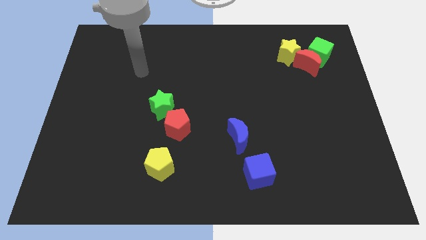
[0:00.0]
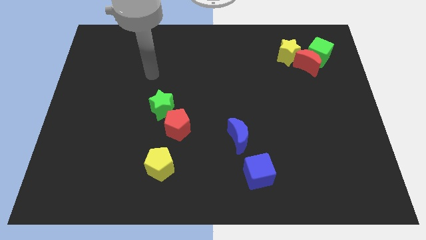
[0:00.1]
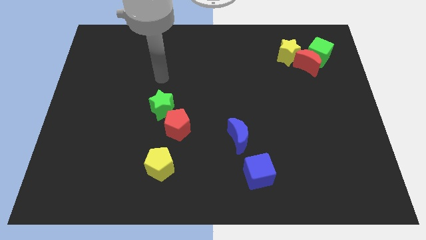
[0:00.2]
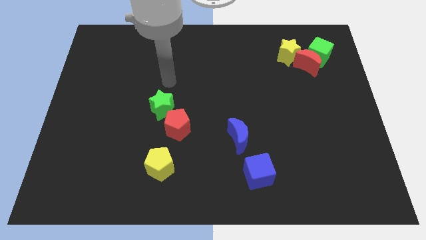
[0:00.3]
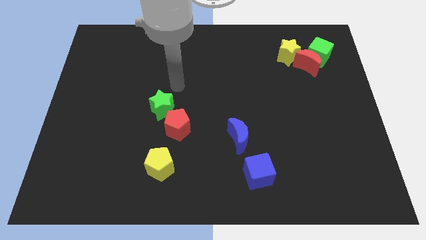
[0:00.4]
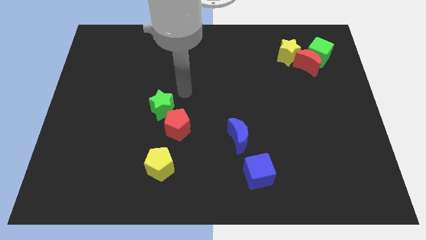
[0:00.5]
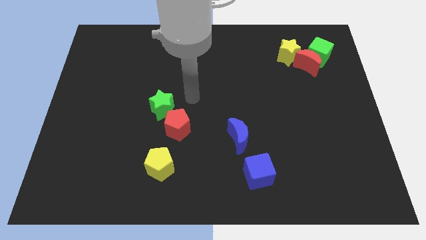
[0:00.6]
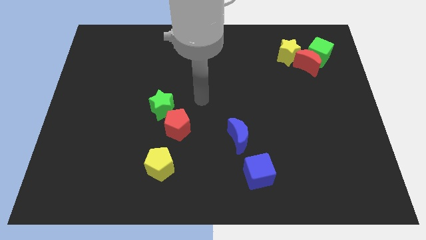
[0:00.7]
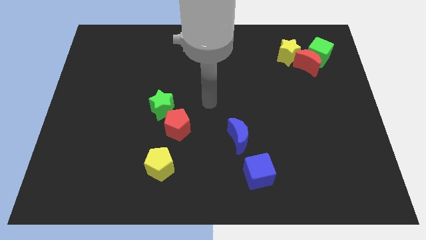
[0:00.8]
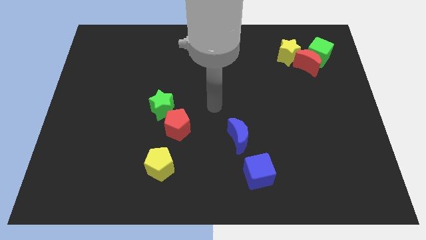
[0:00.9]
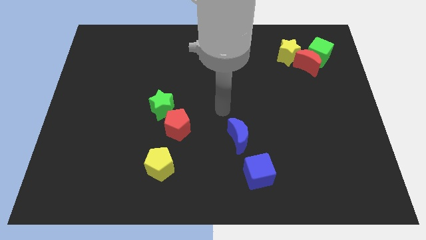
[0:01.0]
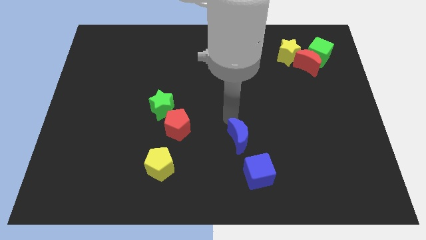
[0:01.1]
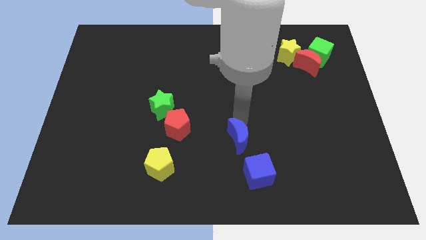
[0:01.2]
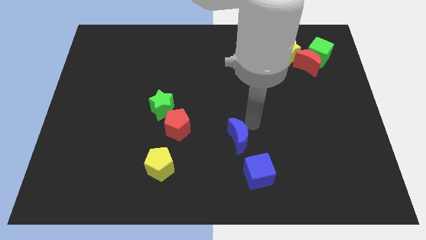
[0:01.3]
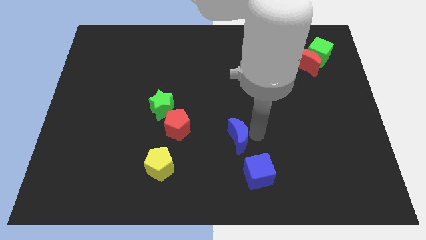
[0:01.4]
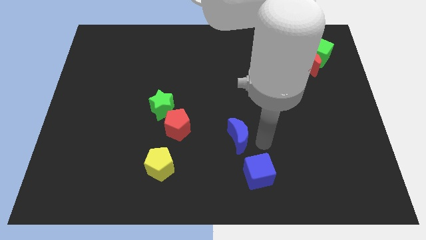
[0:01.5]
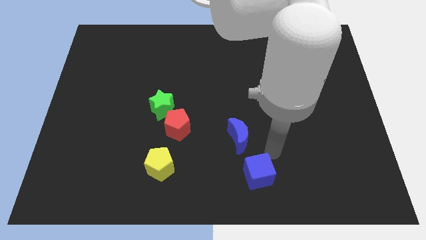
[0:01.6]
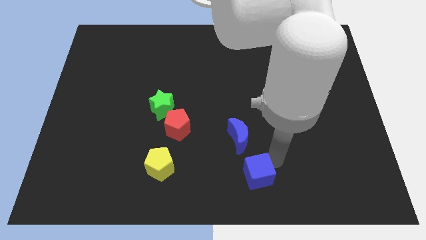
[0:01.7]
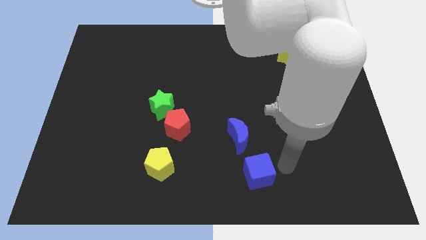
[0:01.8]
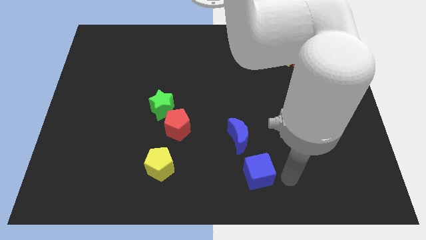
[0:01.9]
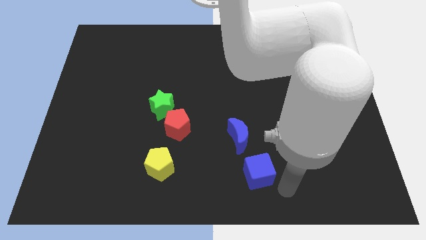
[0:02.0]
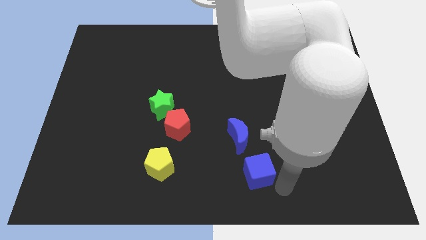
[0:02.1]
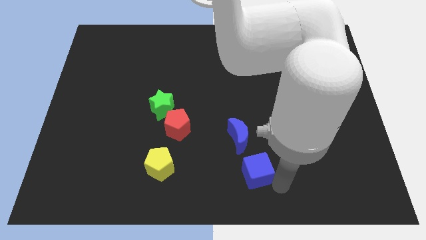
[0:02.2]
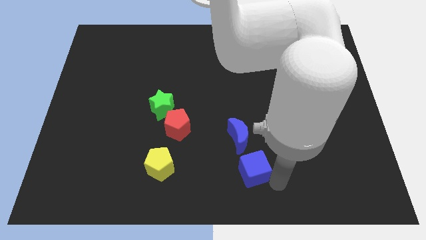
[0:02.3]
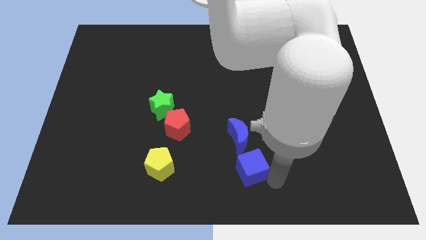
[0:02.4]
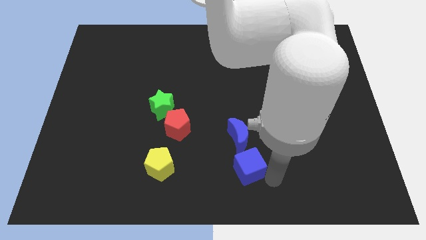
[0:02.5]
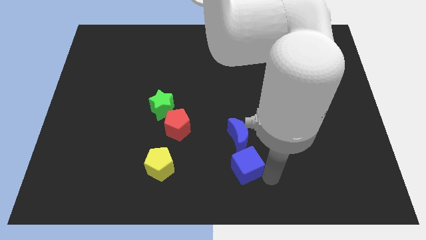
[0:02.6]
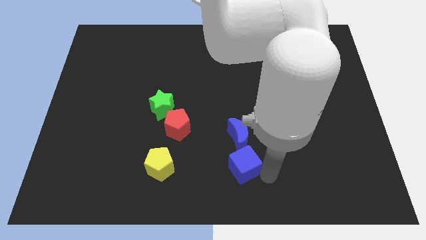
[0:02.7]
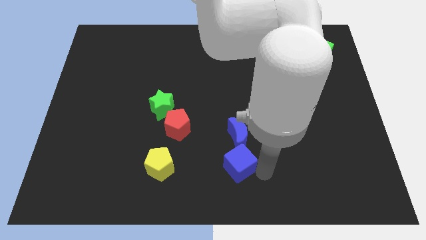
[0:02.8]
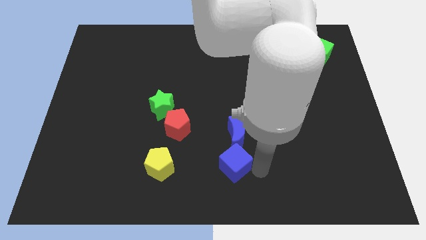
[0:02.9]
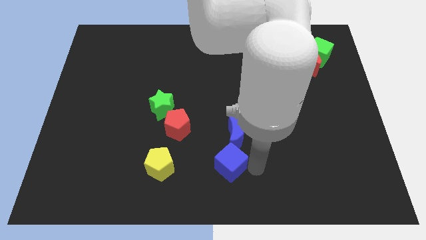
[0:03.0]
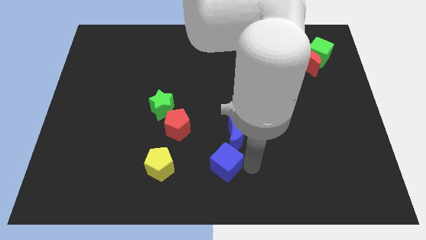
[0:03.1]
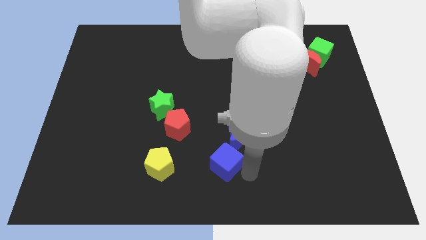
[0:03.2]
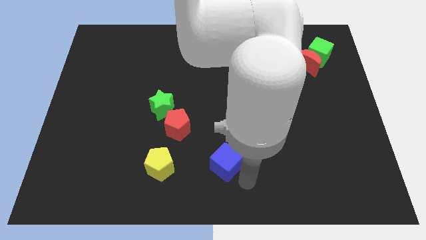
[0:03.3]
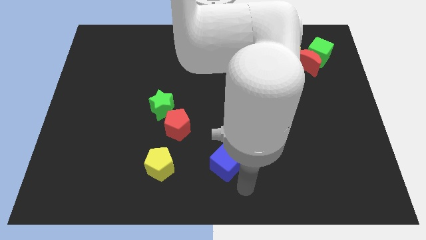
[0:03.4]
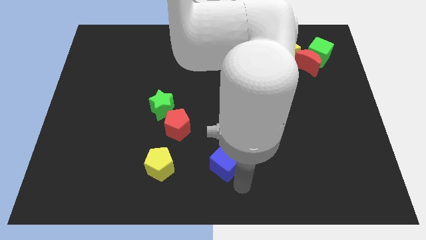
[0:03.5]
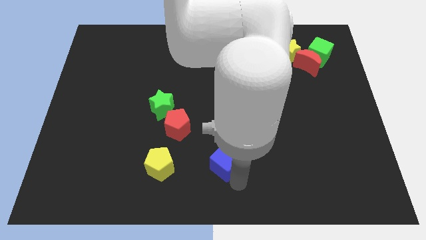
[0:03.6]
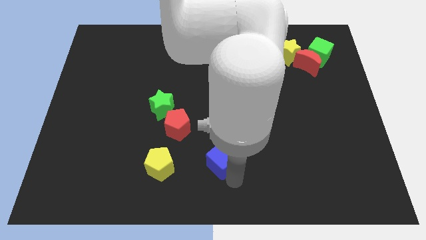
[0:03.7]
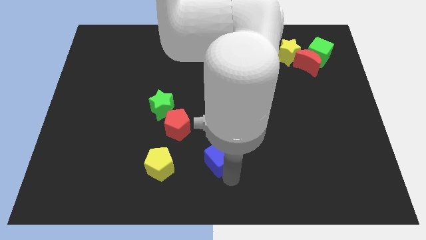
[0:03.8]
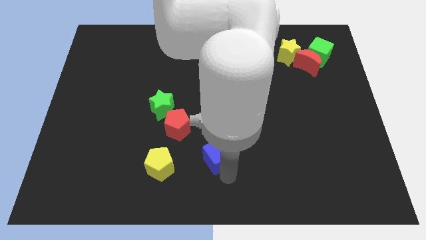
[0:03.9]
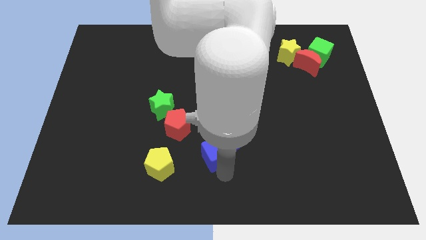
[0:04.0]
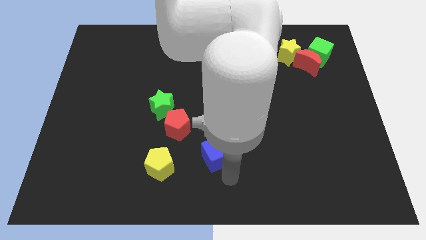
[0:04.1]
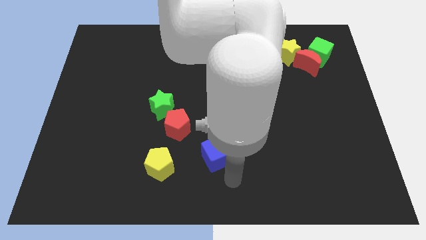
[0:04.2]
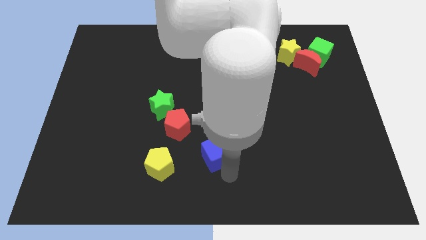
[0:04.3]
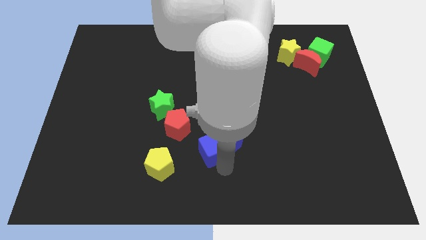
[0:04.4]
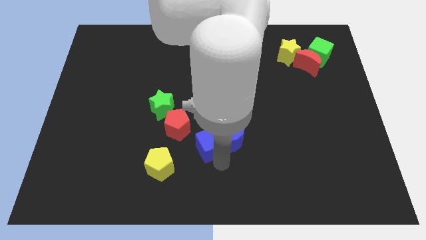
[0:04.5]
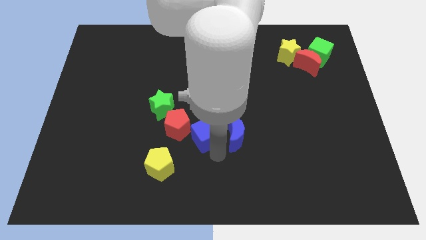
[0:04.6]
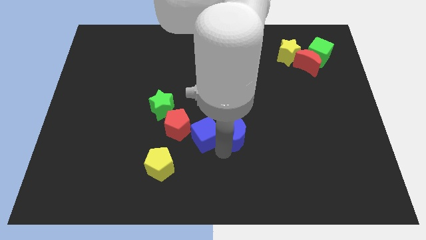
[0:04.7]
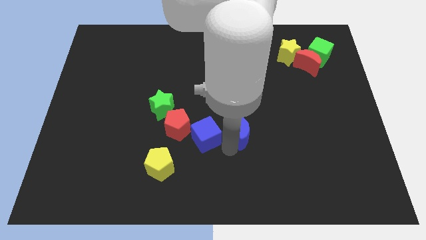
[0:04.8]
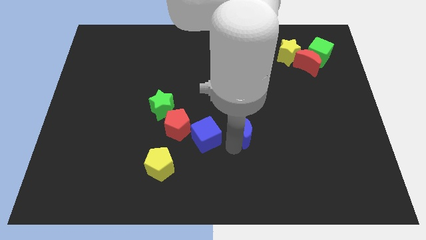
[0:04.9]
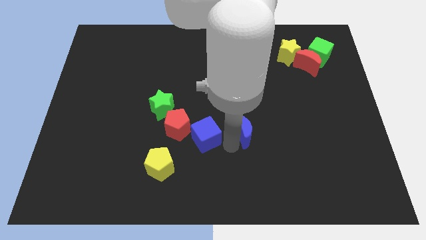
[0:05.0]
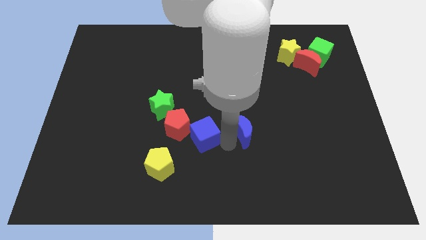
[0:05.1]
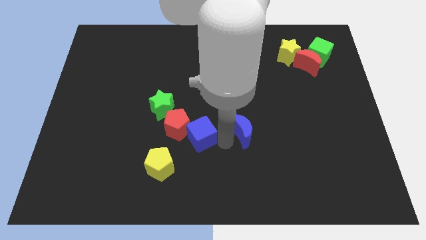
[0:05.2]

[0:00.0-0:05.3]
put the blue cube towards the red pentagon

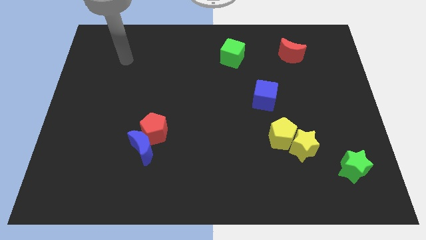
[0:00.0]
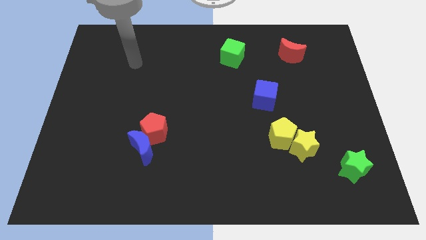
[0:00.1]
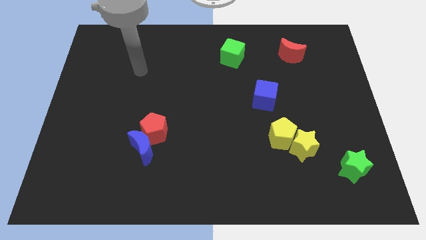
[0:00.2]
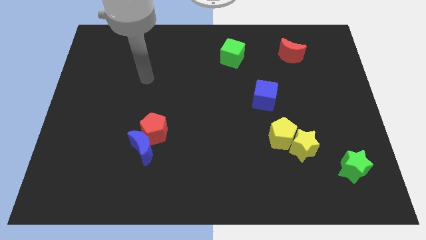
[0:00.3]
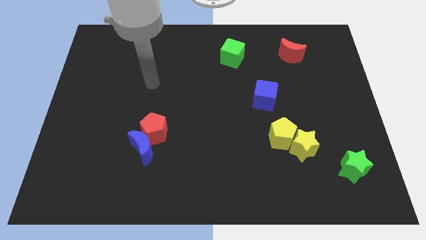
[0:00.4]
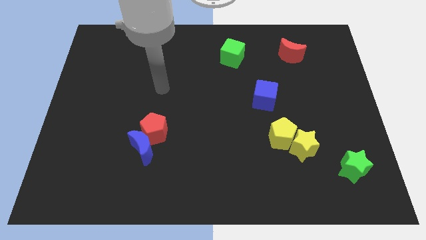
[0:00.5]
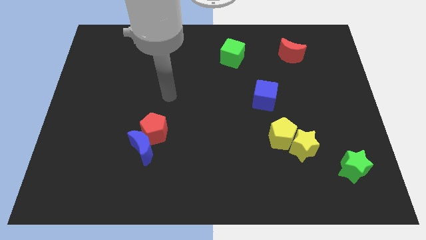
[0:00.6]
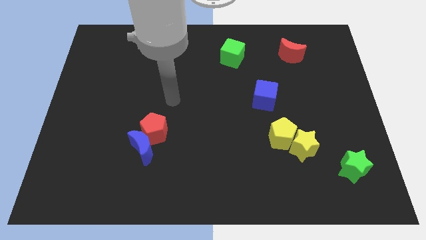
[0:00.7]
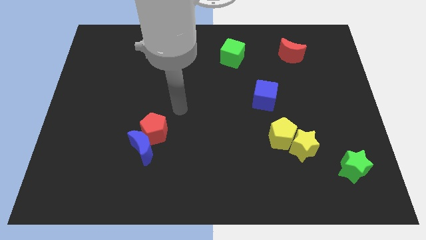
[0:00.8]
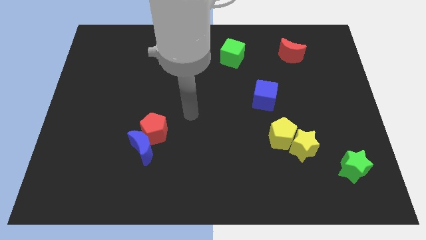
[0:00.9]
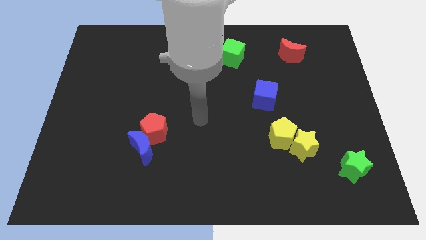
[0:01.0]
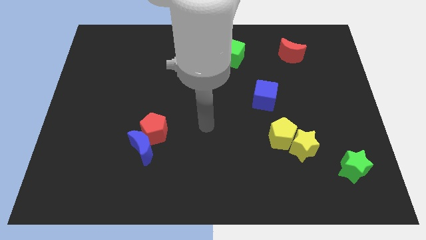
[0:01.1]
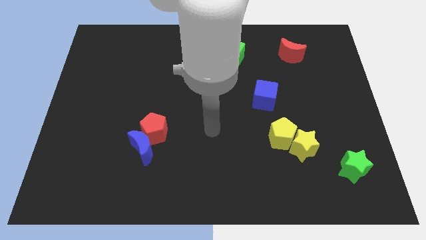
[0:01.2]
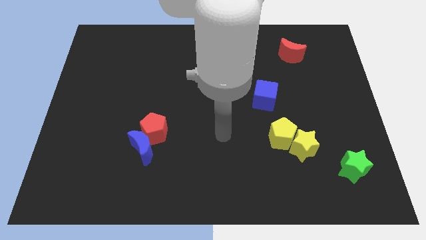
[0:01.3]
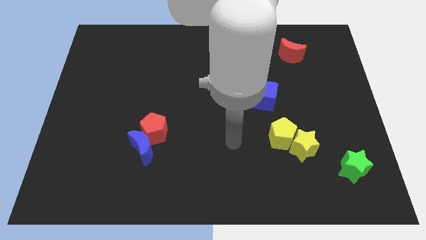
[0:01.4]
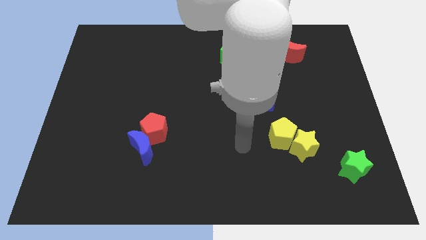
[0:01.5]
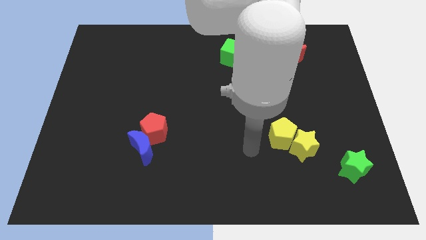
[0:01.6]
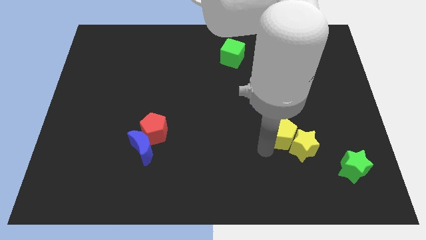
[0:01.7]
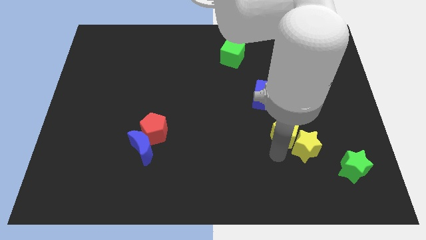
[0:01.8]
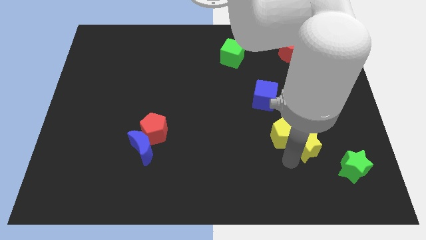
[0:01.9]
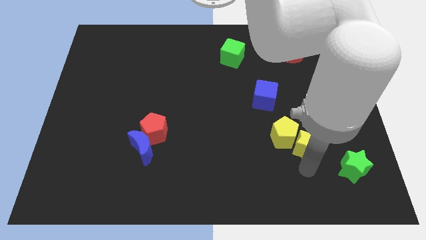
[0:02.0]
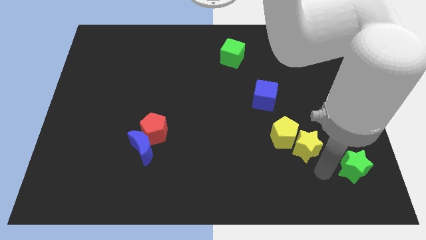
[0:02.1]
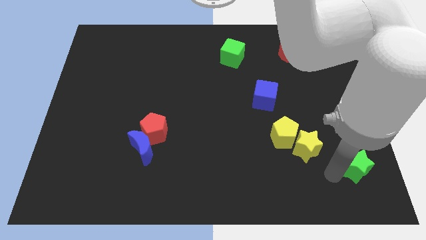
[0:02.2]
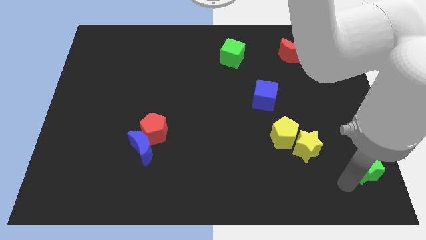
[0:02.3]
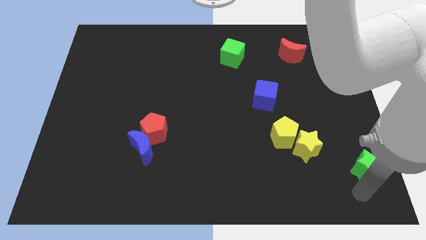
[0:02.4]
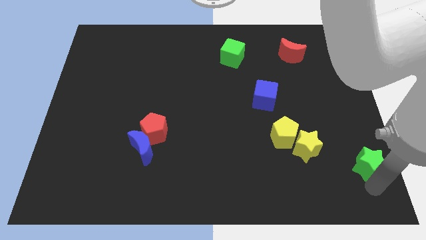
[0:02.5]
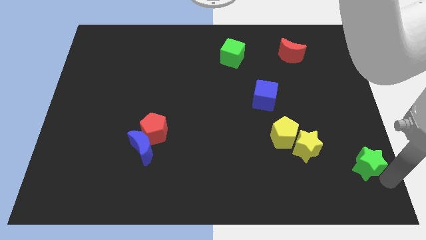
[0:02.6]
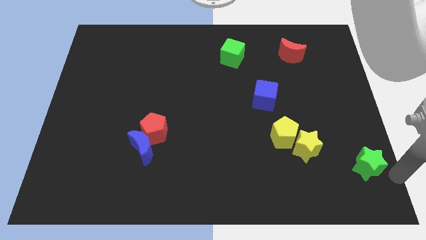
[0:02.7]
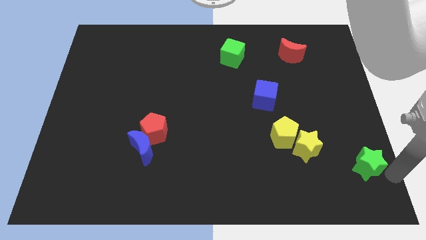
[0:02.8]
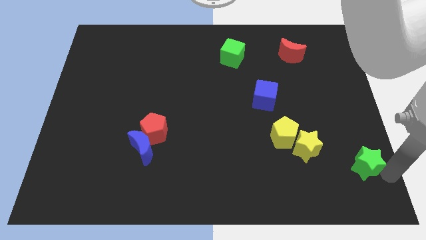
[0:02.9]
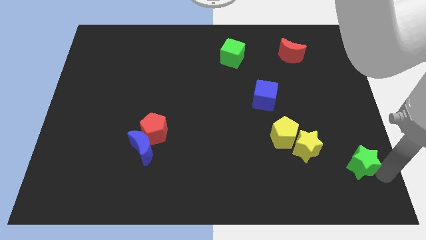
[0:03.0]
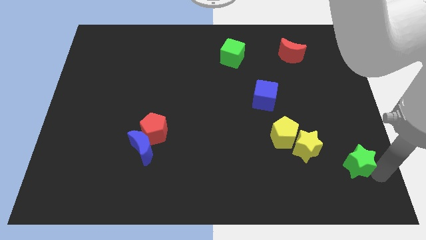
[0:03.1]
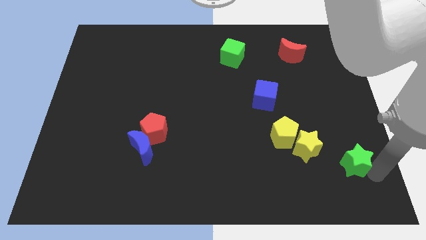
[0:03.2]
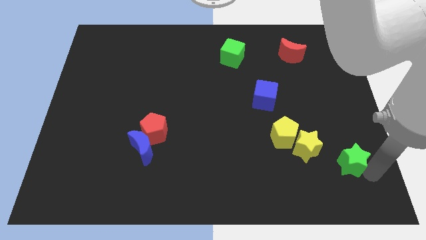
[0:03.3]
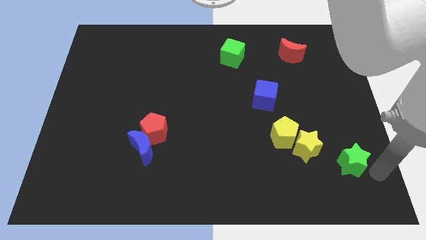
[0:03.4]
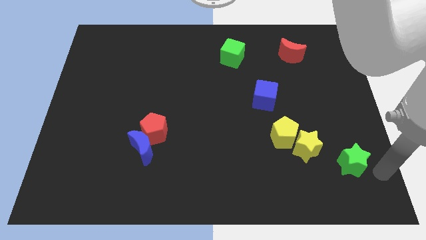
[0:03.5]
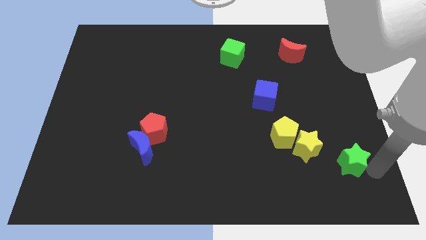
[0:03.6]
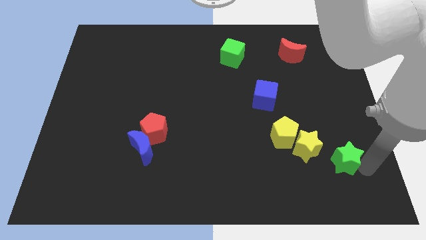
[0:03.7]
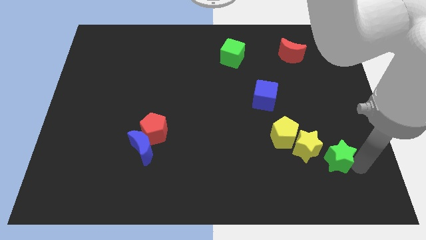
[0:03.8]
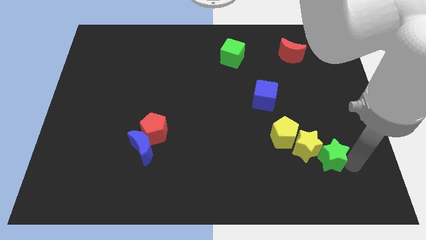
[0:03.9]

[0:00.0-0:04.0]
slide the green star close to the yellow star
